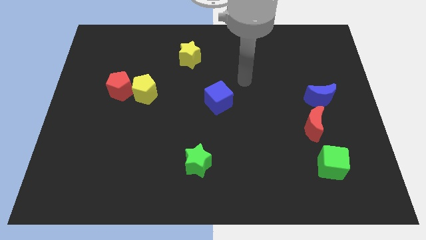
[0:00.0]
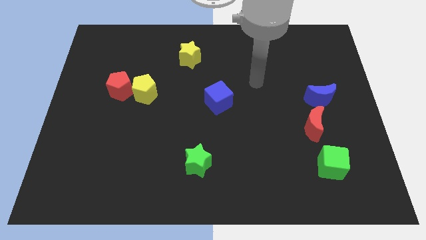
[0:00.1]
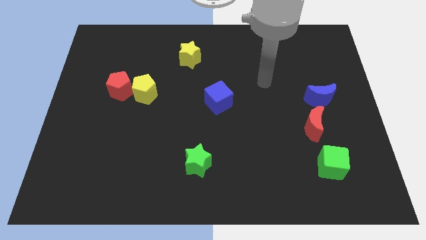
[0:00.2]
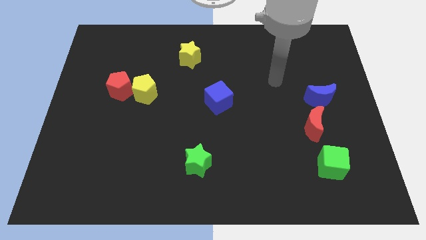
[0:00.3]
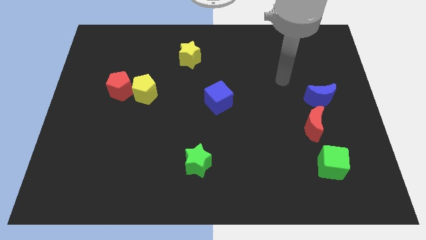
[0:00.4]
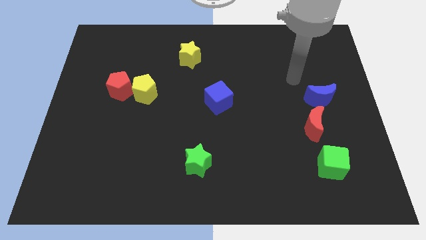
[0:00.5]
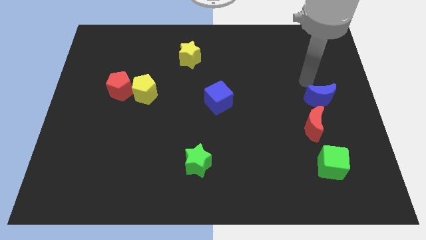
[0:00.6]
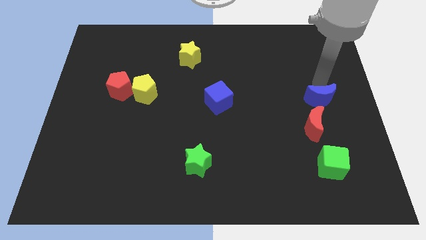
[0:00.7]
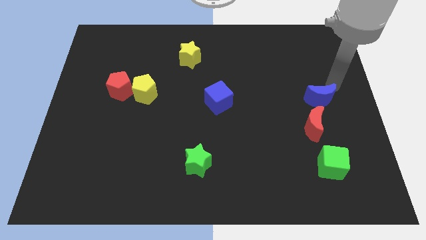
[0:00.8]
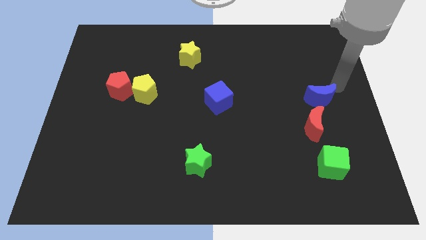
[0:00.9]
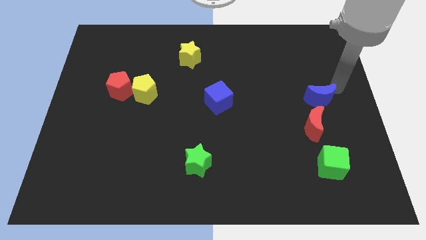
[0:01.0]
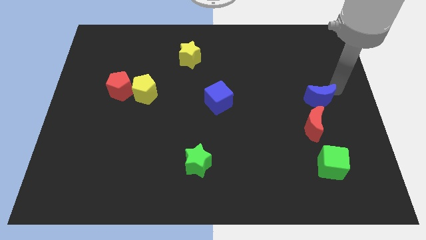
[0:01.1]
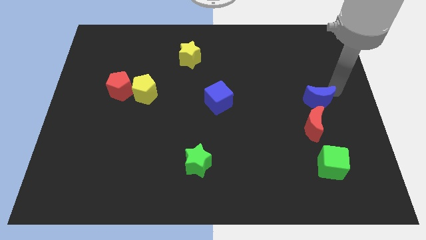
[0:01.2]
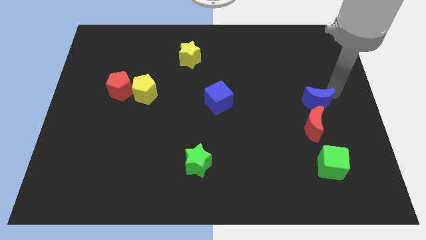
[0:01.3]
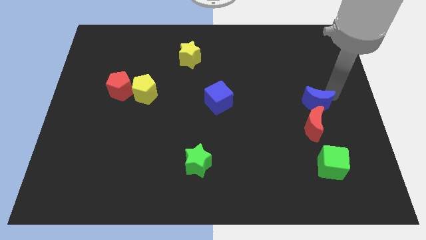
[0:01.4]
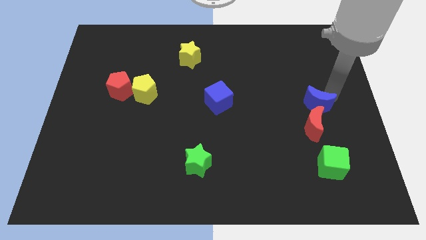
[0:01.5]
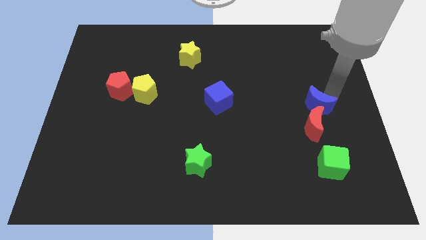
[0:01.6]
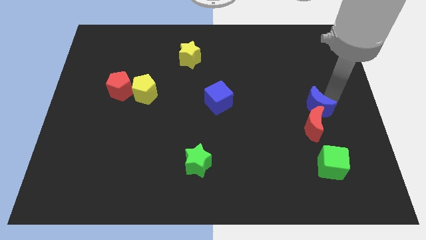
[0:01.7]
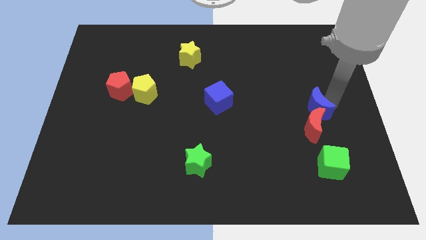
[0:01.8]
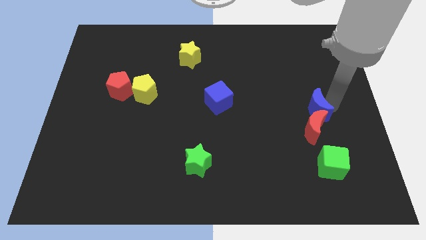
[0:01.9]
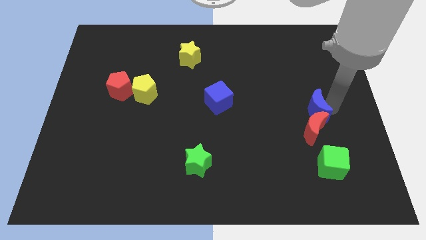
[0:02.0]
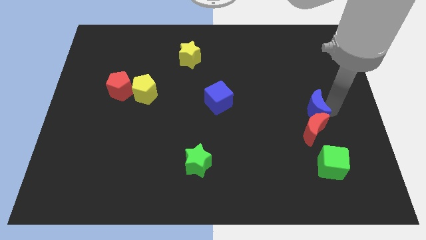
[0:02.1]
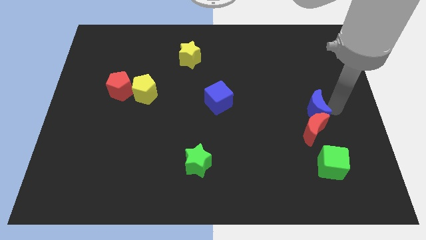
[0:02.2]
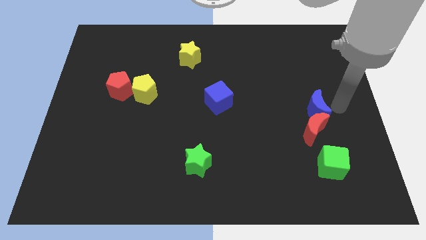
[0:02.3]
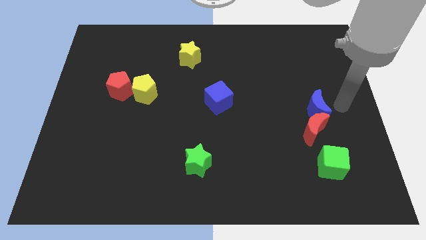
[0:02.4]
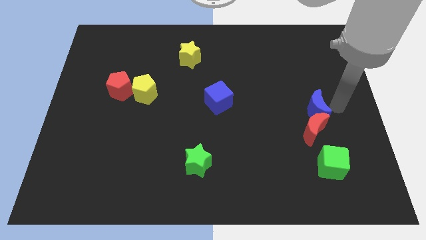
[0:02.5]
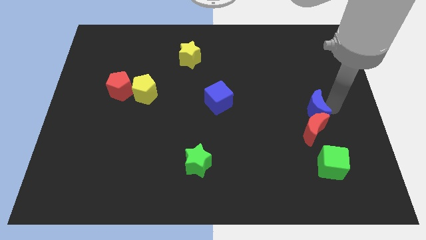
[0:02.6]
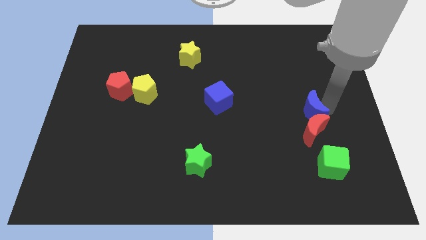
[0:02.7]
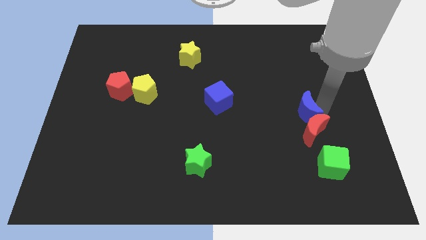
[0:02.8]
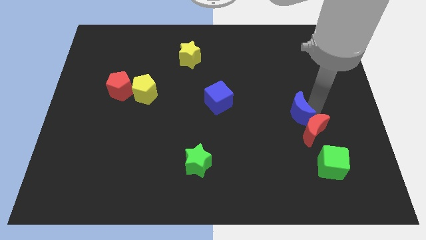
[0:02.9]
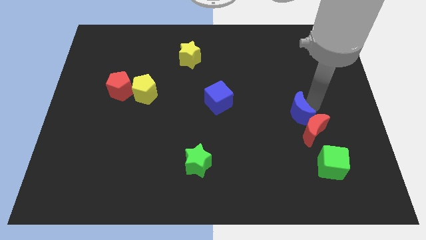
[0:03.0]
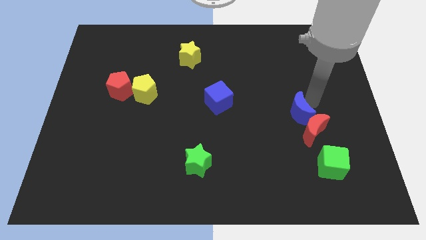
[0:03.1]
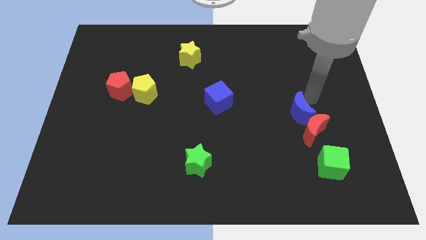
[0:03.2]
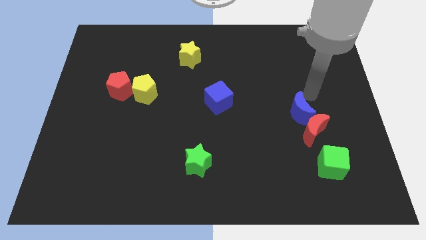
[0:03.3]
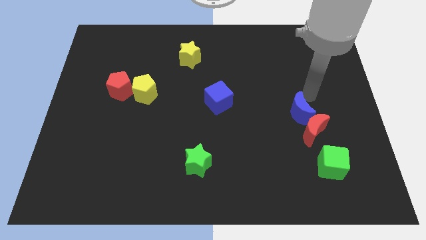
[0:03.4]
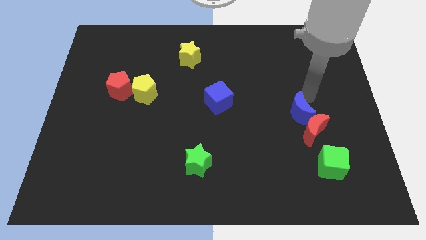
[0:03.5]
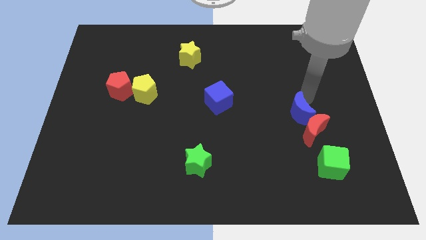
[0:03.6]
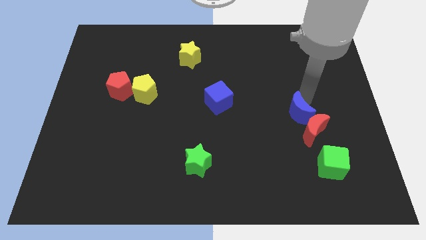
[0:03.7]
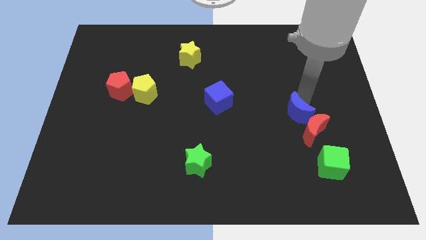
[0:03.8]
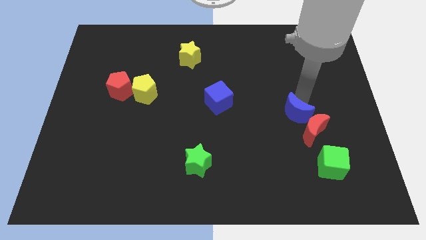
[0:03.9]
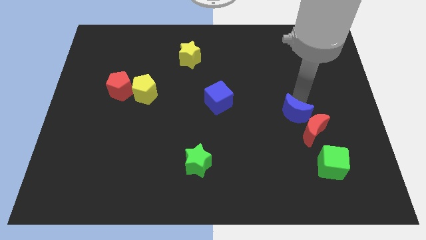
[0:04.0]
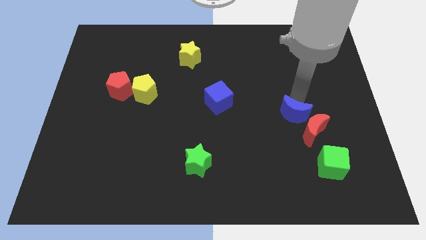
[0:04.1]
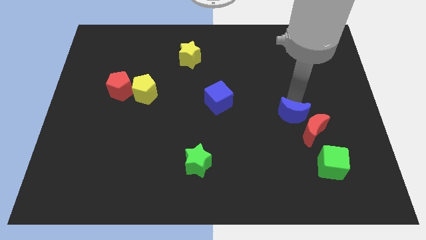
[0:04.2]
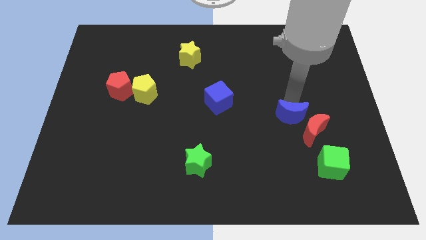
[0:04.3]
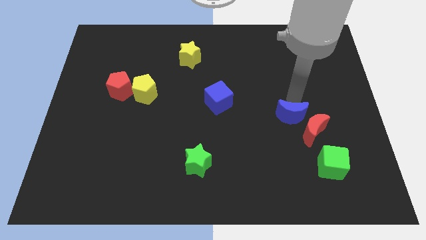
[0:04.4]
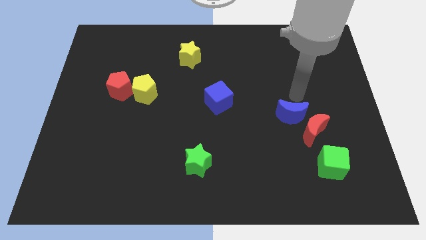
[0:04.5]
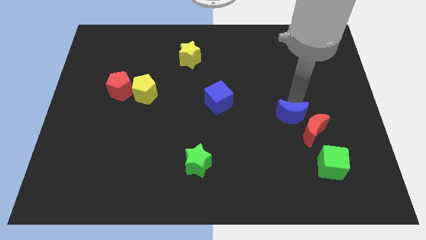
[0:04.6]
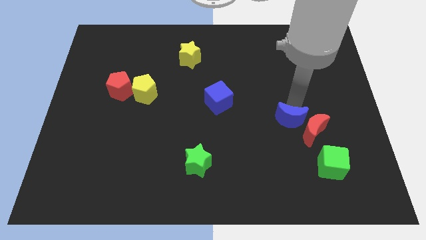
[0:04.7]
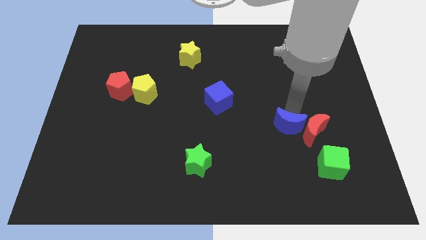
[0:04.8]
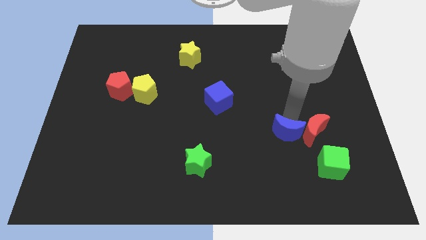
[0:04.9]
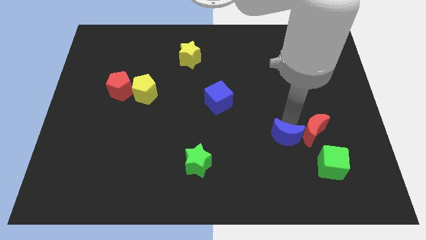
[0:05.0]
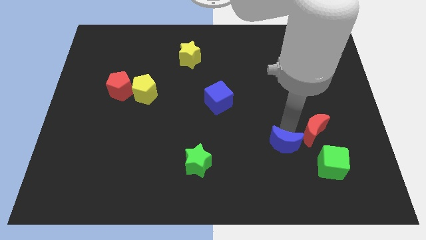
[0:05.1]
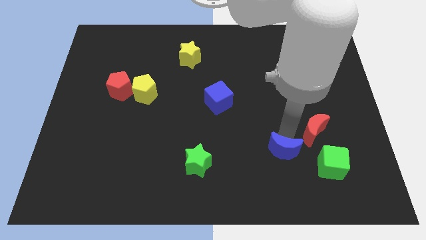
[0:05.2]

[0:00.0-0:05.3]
put the blue moon left of the green cube

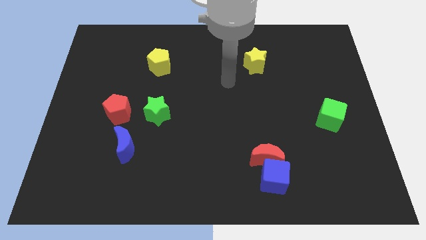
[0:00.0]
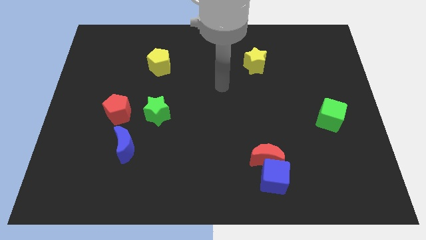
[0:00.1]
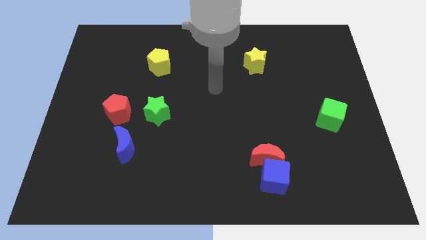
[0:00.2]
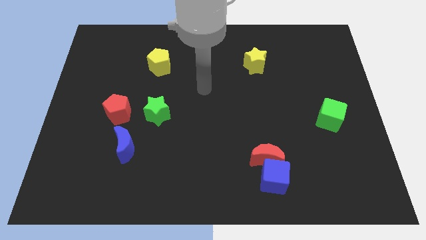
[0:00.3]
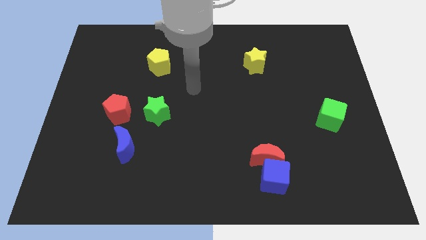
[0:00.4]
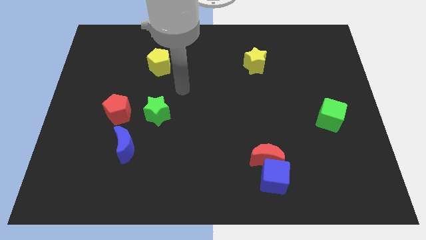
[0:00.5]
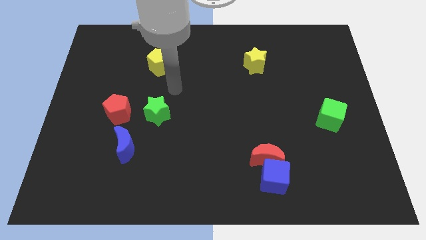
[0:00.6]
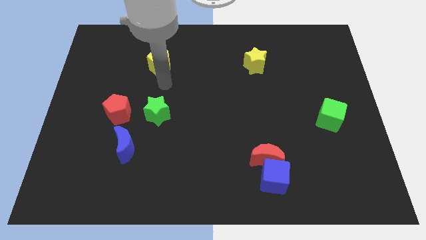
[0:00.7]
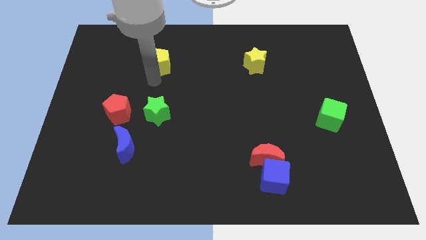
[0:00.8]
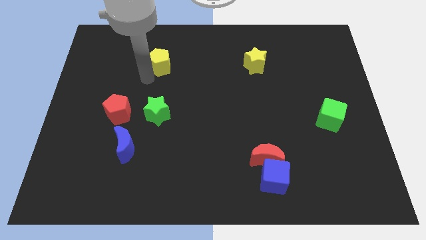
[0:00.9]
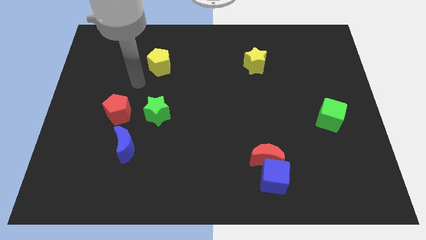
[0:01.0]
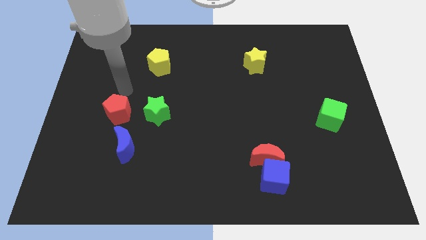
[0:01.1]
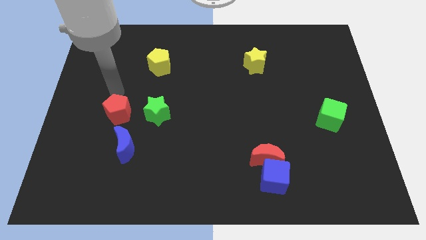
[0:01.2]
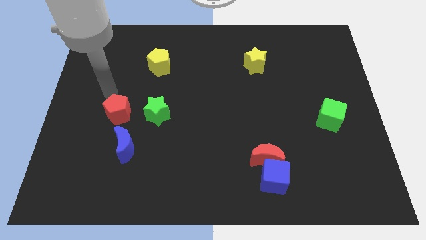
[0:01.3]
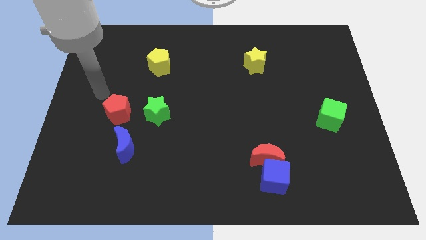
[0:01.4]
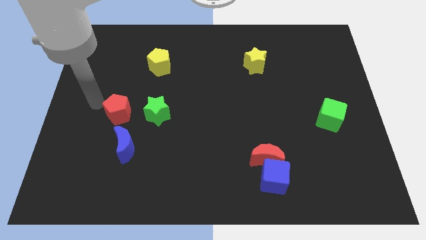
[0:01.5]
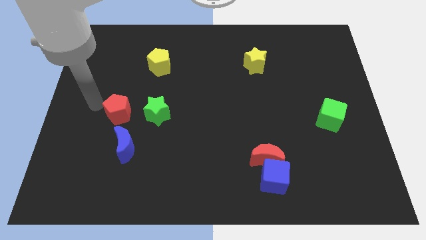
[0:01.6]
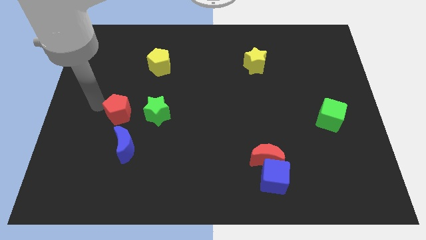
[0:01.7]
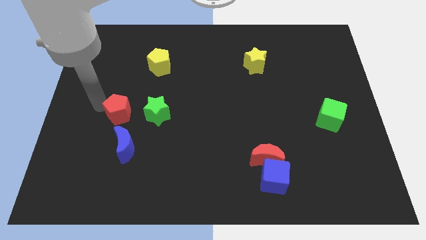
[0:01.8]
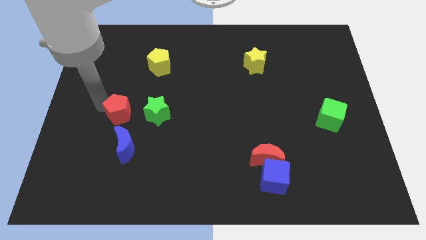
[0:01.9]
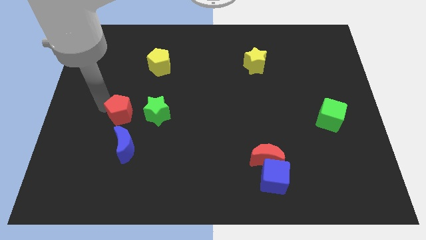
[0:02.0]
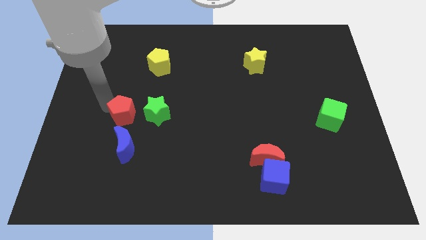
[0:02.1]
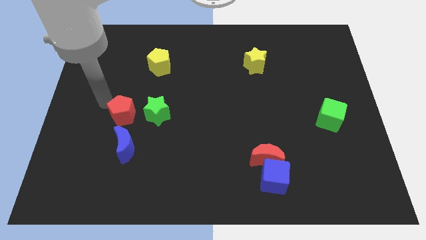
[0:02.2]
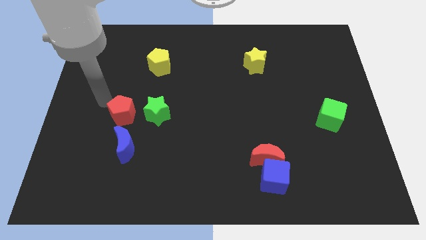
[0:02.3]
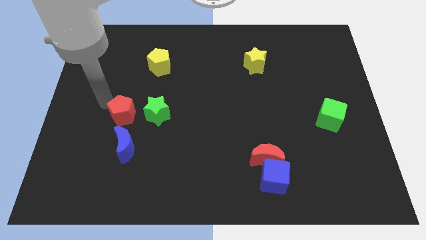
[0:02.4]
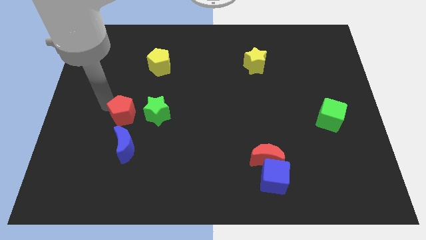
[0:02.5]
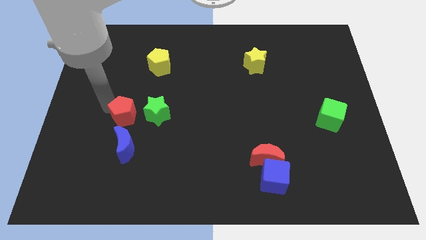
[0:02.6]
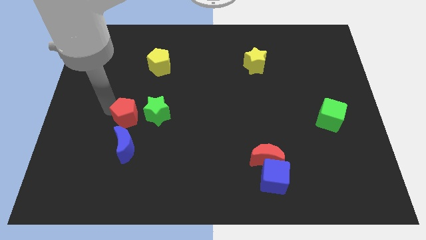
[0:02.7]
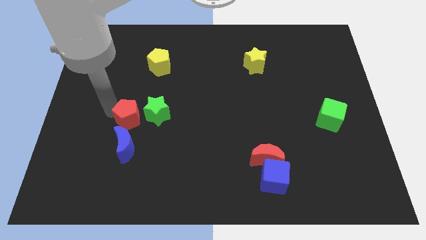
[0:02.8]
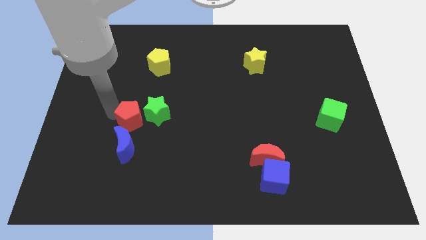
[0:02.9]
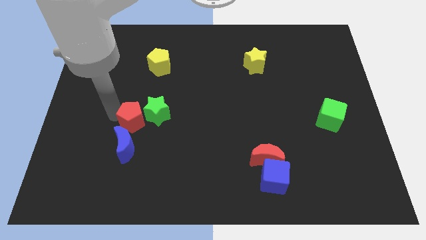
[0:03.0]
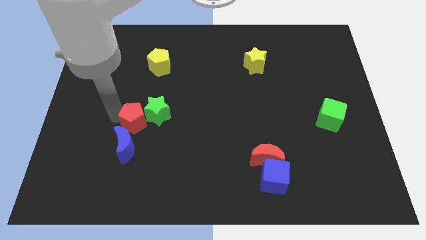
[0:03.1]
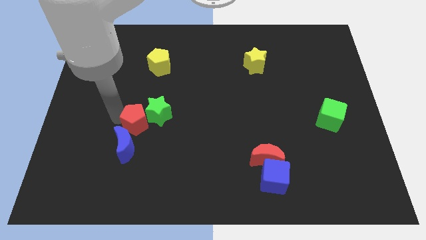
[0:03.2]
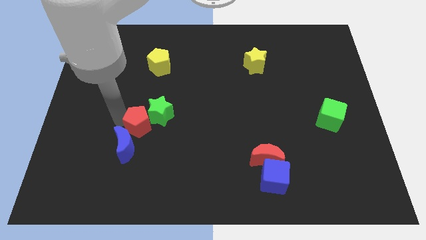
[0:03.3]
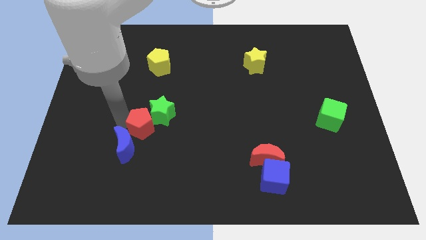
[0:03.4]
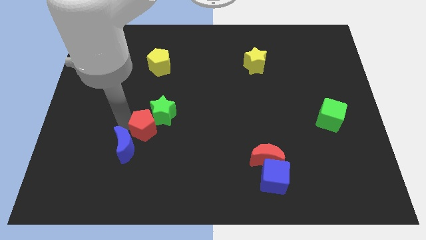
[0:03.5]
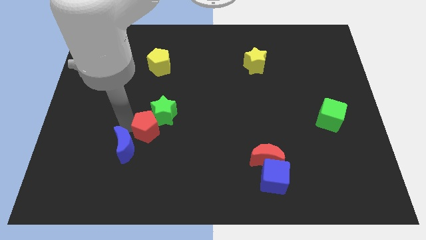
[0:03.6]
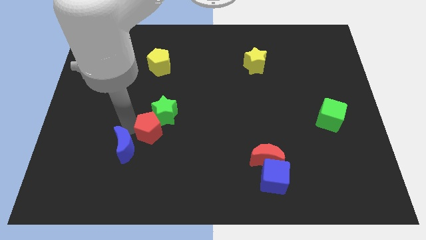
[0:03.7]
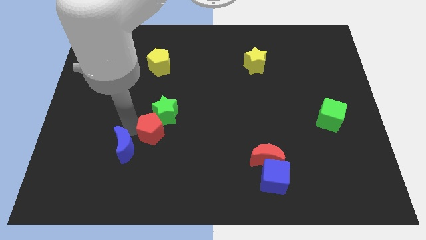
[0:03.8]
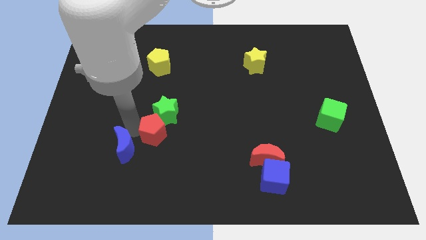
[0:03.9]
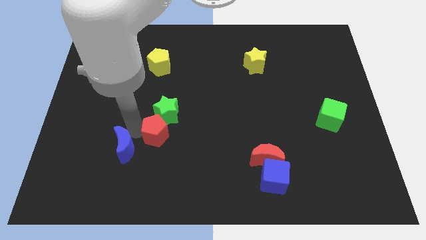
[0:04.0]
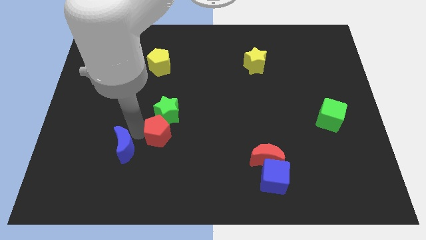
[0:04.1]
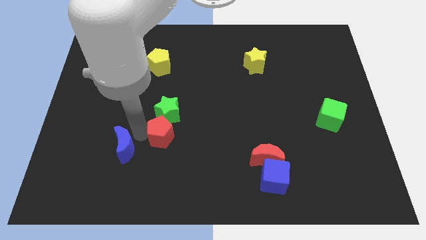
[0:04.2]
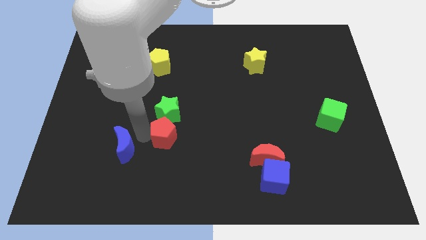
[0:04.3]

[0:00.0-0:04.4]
push the red pentagon diagonally down and to the right of the green star
